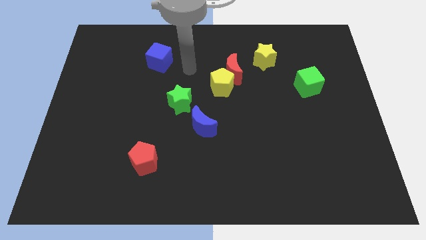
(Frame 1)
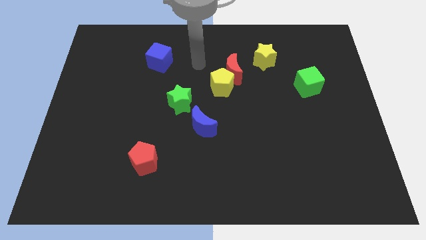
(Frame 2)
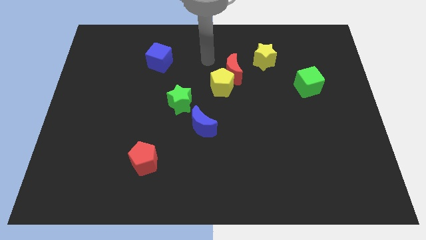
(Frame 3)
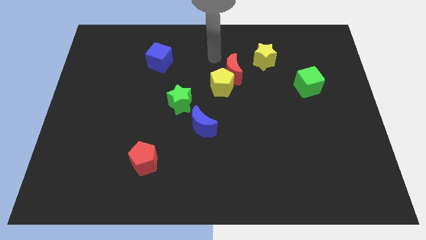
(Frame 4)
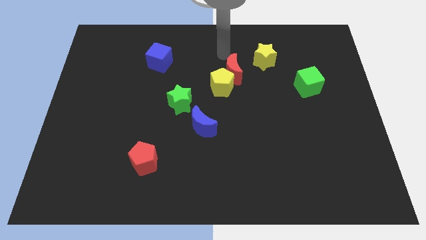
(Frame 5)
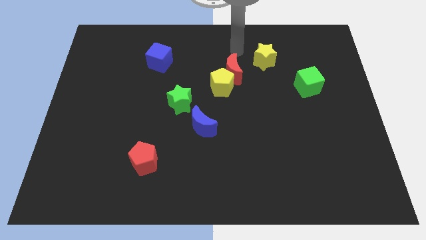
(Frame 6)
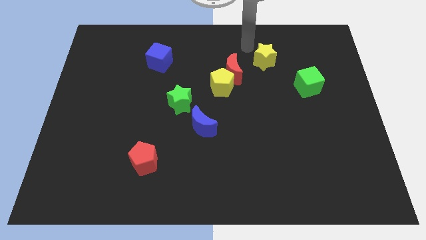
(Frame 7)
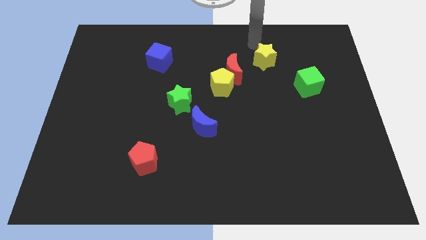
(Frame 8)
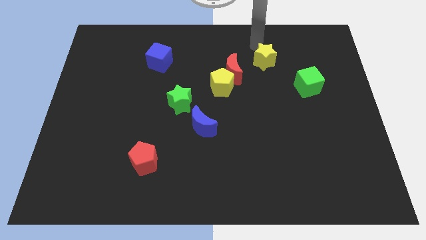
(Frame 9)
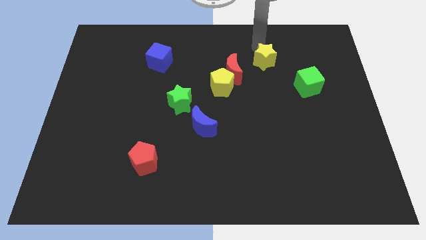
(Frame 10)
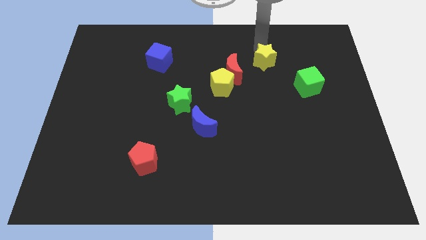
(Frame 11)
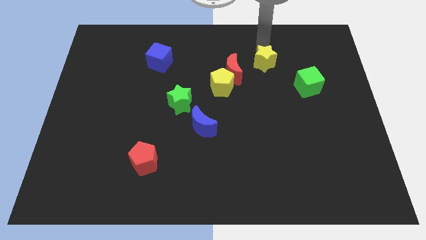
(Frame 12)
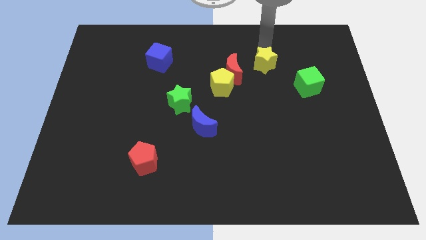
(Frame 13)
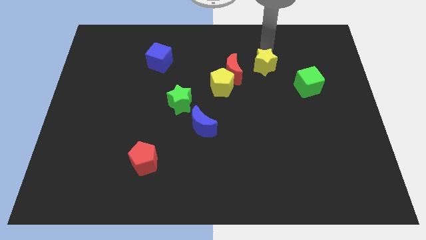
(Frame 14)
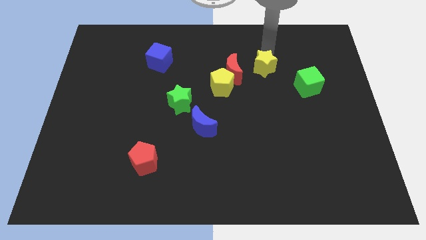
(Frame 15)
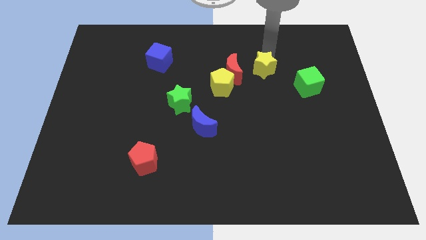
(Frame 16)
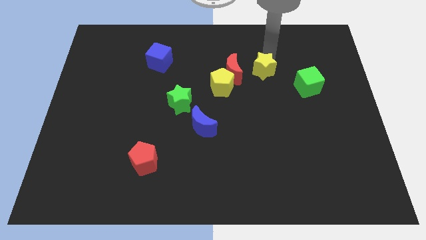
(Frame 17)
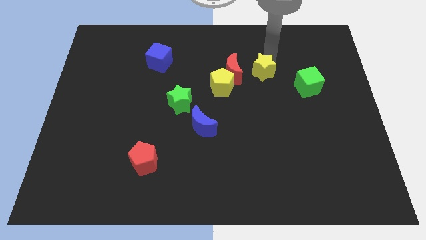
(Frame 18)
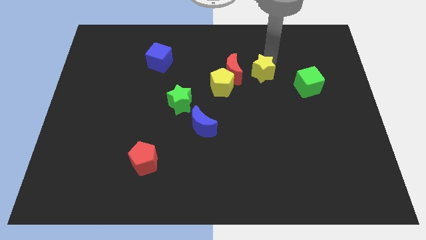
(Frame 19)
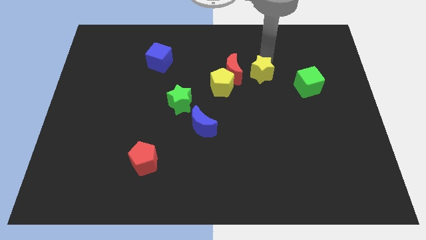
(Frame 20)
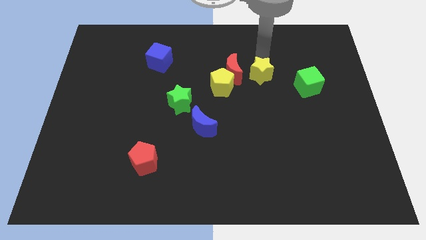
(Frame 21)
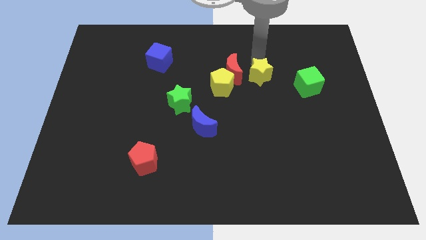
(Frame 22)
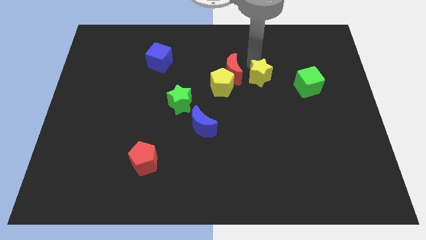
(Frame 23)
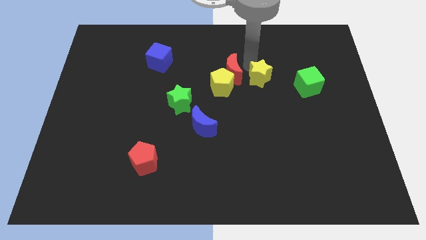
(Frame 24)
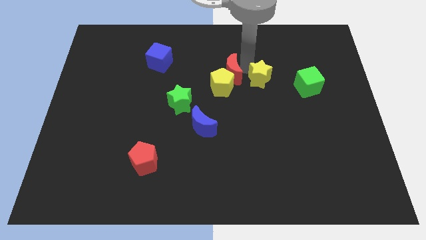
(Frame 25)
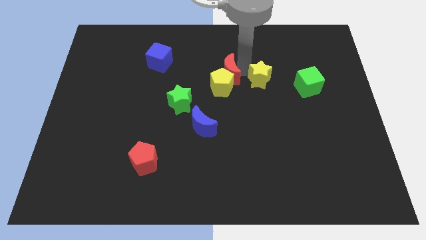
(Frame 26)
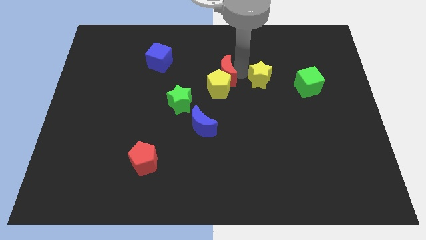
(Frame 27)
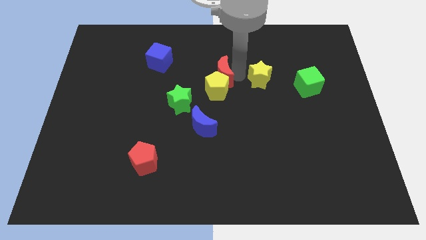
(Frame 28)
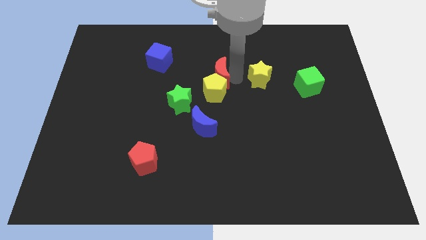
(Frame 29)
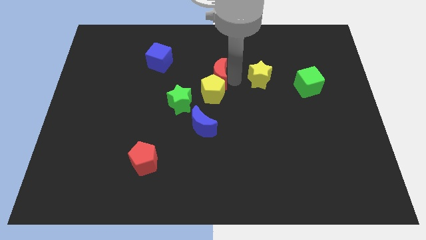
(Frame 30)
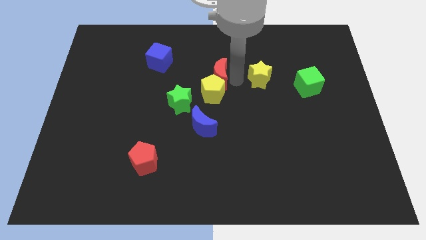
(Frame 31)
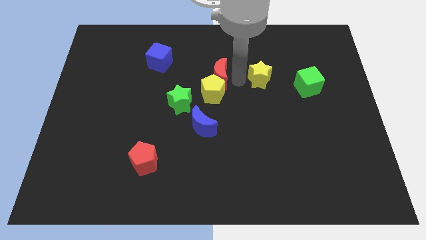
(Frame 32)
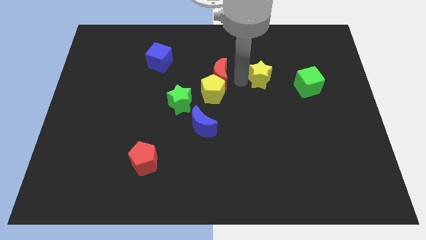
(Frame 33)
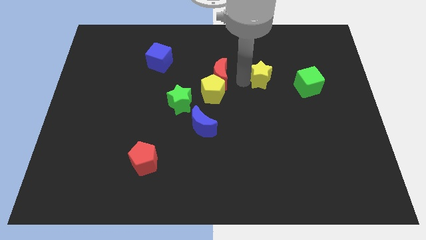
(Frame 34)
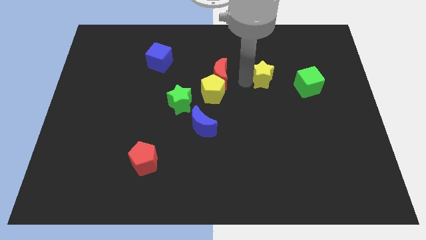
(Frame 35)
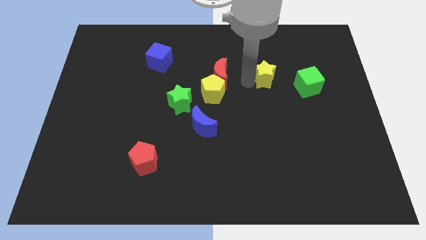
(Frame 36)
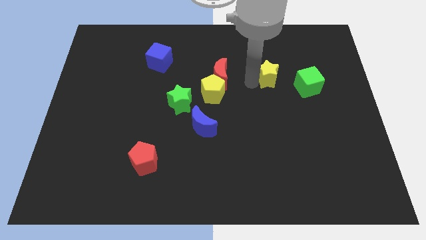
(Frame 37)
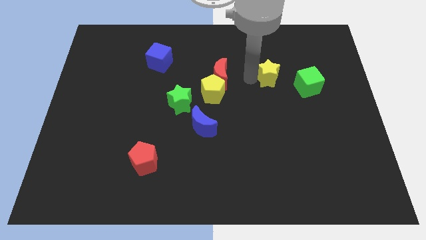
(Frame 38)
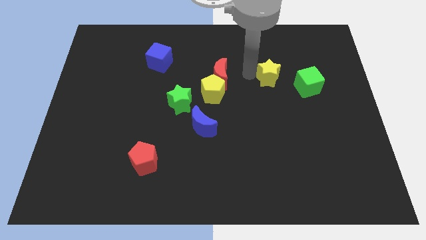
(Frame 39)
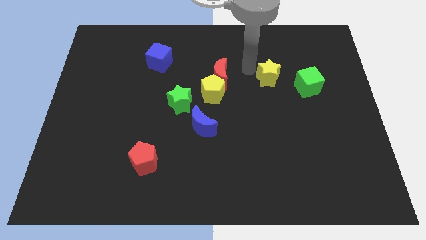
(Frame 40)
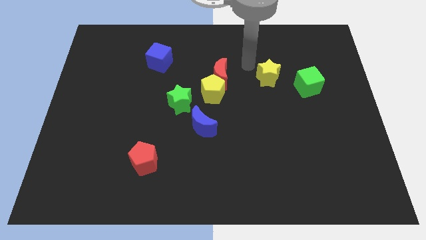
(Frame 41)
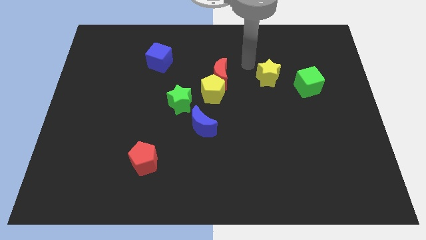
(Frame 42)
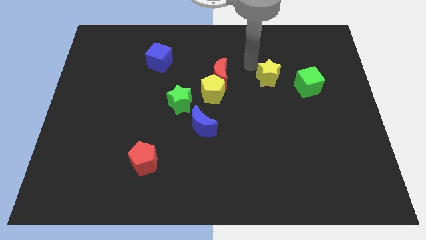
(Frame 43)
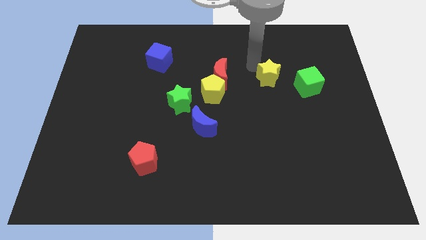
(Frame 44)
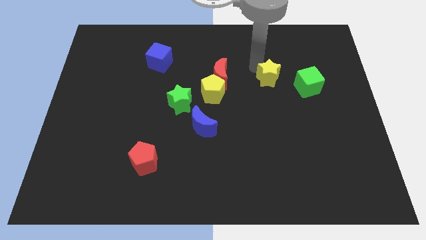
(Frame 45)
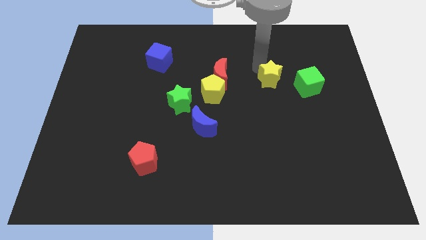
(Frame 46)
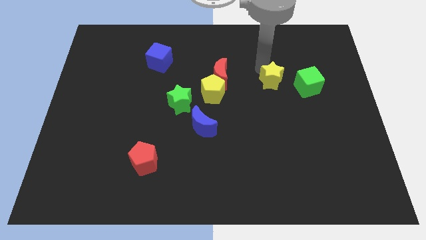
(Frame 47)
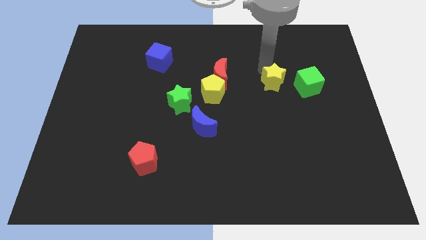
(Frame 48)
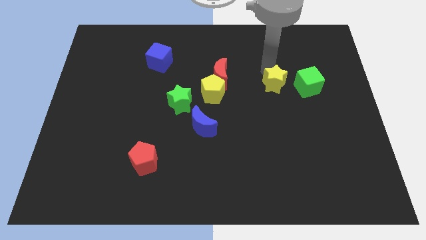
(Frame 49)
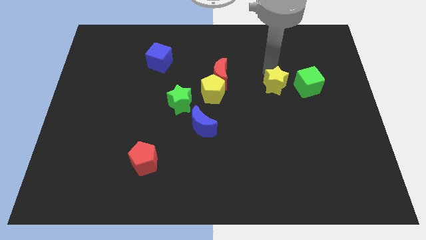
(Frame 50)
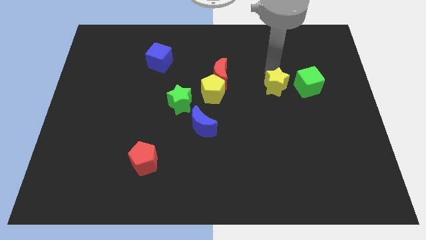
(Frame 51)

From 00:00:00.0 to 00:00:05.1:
slightly move the yellow star downwards and to the right

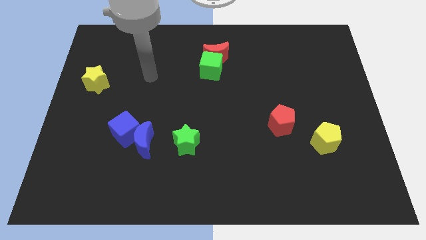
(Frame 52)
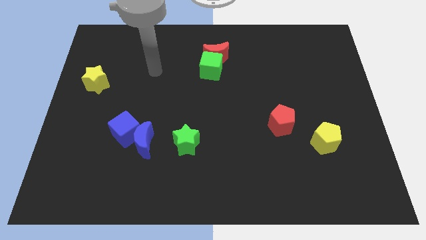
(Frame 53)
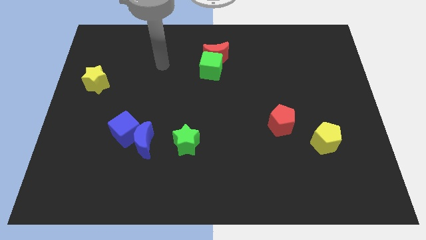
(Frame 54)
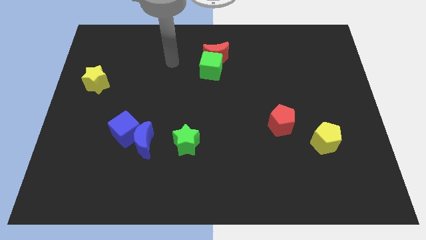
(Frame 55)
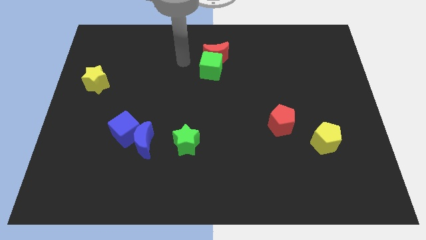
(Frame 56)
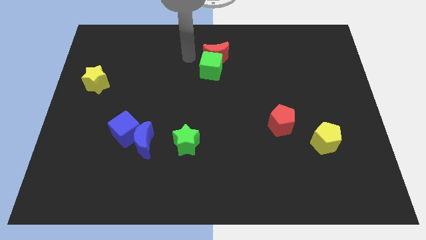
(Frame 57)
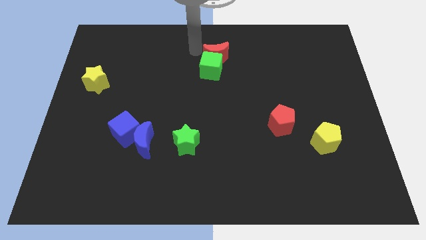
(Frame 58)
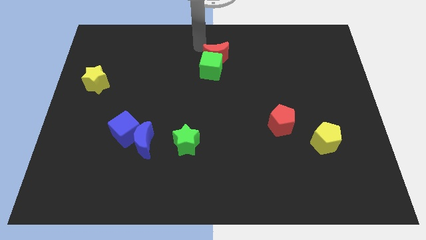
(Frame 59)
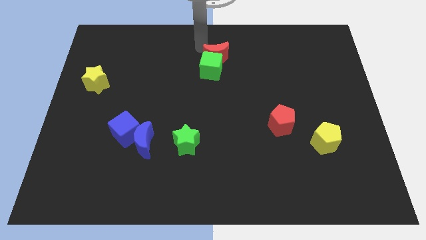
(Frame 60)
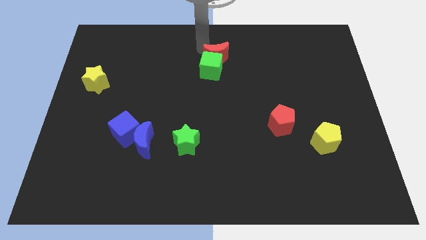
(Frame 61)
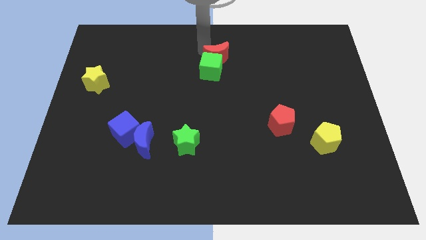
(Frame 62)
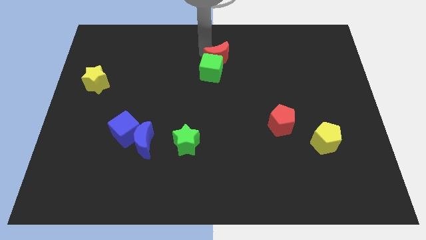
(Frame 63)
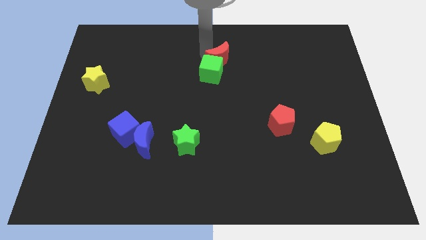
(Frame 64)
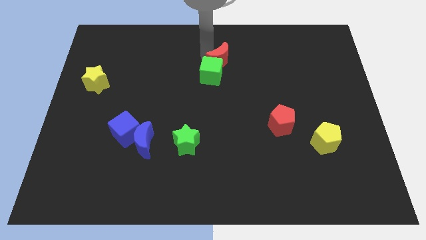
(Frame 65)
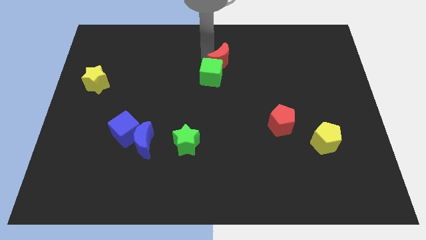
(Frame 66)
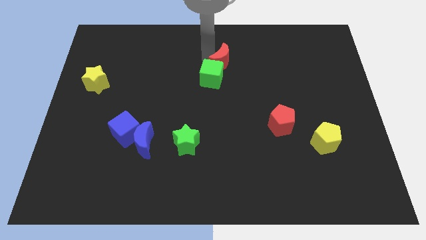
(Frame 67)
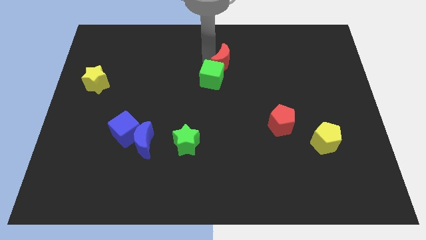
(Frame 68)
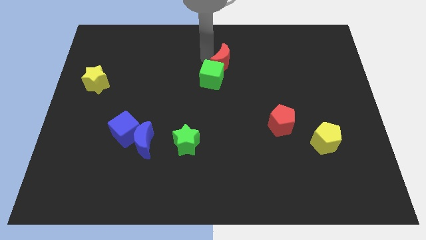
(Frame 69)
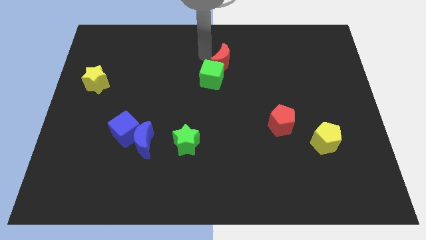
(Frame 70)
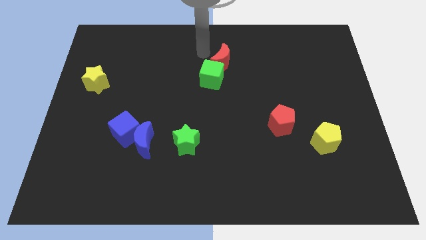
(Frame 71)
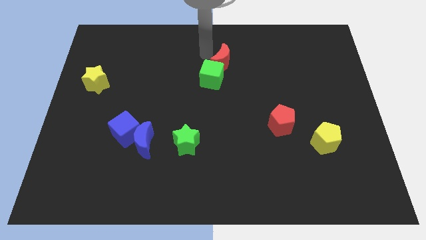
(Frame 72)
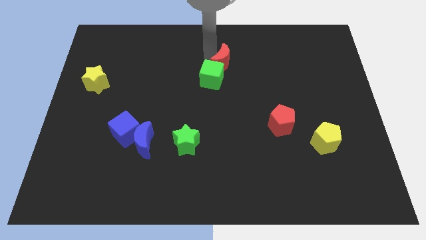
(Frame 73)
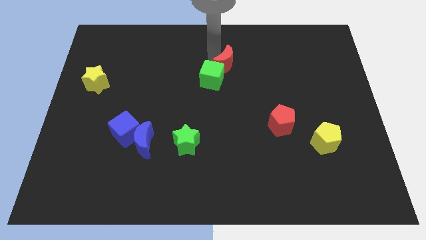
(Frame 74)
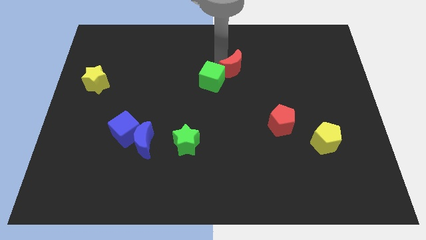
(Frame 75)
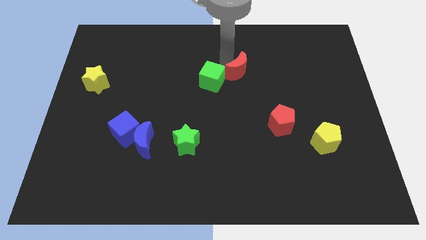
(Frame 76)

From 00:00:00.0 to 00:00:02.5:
slide the red moon down and right a little bit
